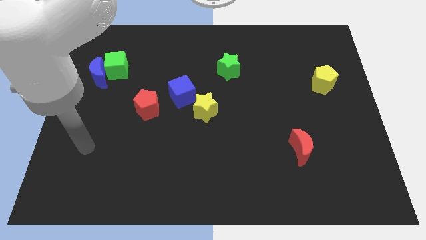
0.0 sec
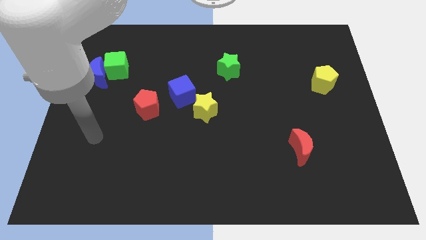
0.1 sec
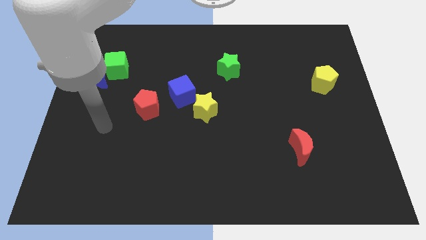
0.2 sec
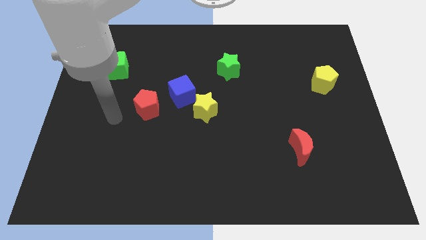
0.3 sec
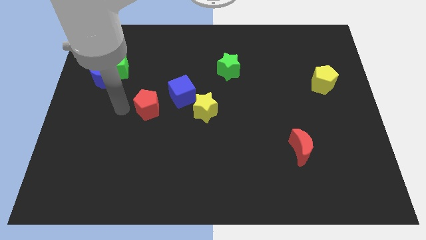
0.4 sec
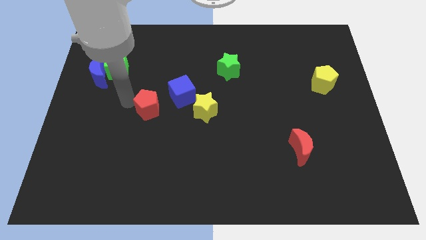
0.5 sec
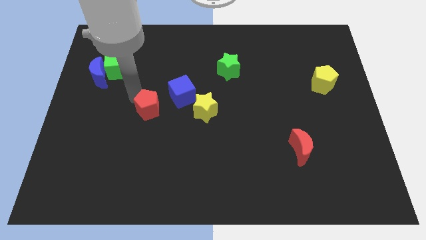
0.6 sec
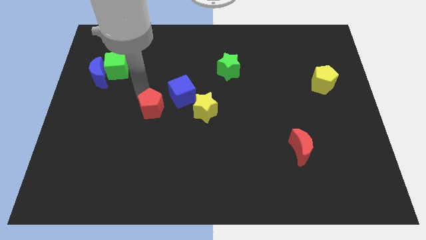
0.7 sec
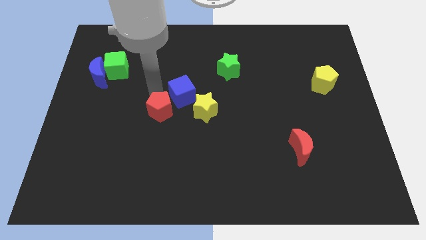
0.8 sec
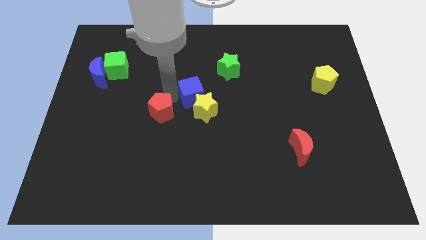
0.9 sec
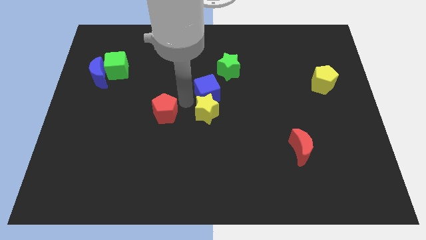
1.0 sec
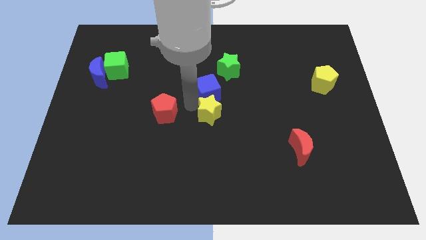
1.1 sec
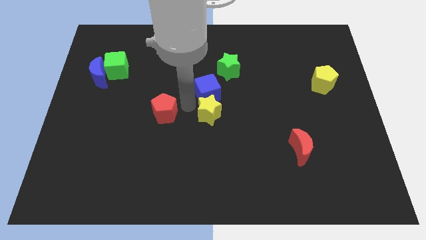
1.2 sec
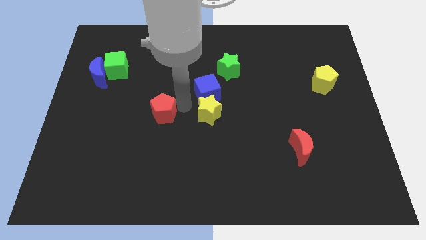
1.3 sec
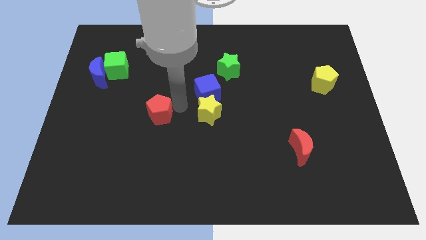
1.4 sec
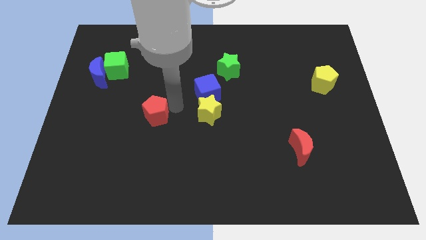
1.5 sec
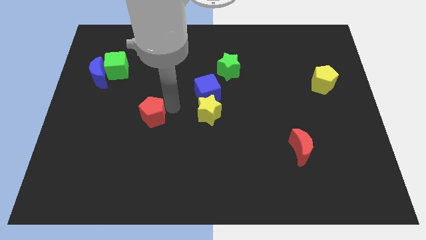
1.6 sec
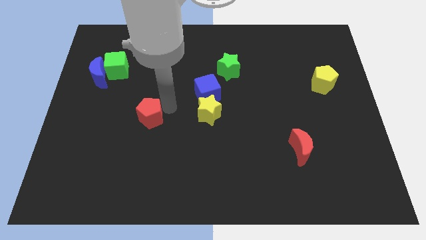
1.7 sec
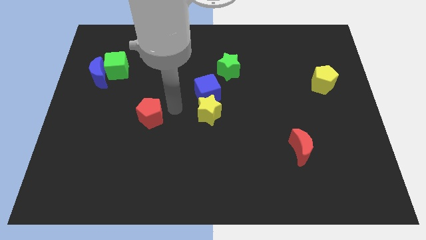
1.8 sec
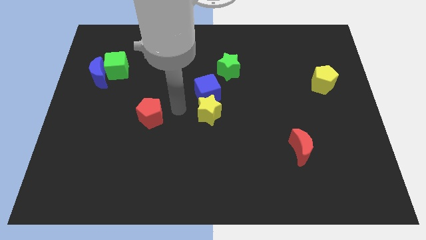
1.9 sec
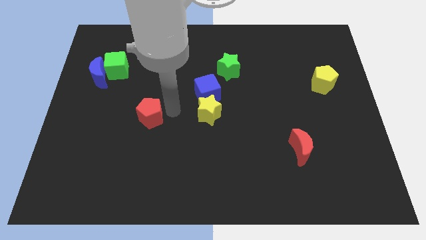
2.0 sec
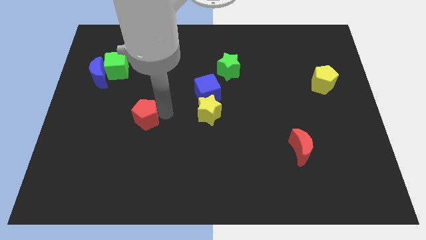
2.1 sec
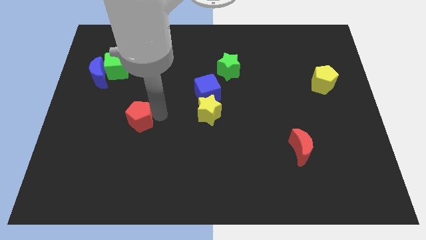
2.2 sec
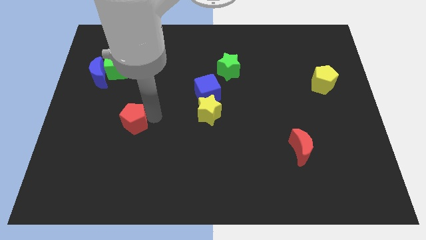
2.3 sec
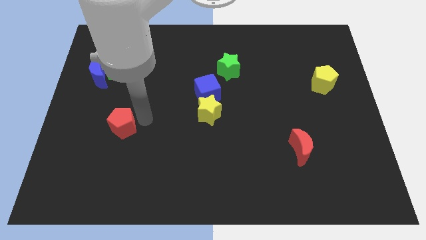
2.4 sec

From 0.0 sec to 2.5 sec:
push the red pentagon diagonally down and to the left a little

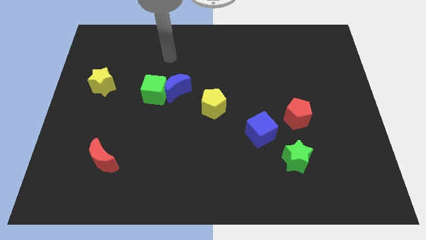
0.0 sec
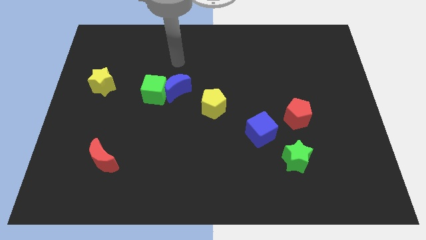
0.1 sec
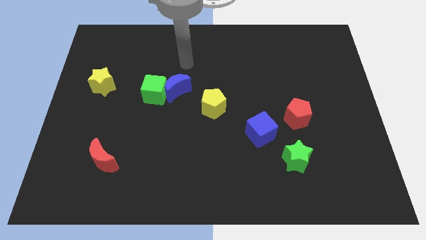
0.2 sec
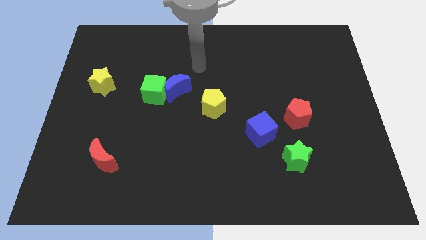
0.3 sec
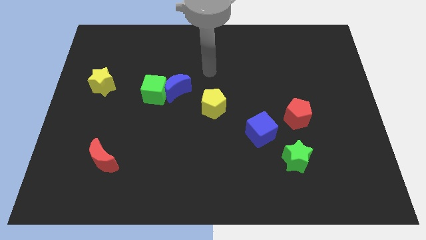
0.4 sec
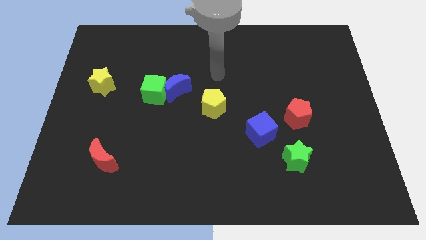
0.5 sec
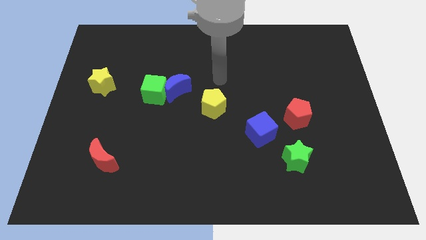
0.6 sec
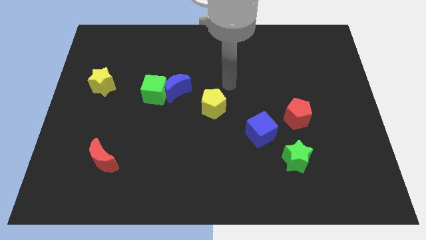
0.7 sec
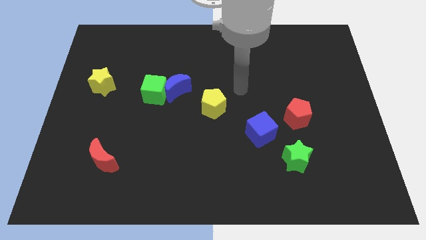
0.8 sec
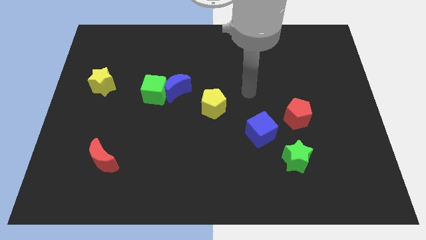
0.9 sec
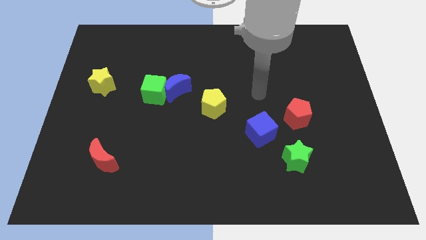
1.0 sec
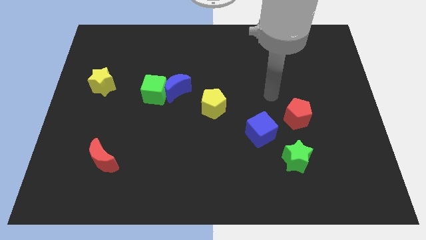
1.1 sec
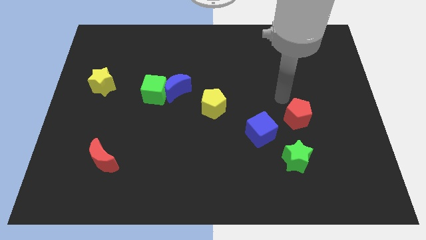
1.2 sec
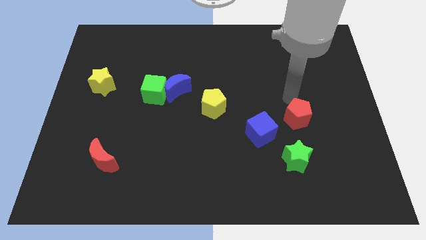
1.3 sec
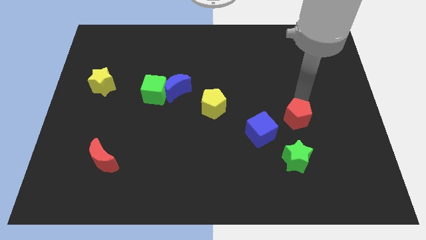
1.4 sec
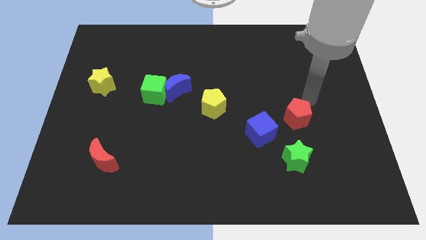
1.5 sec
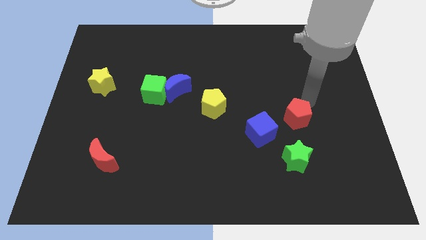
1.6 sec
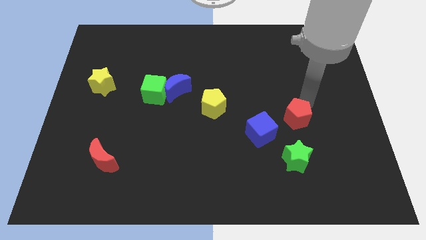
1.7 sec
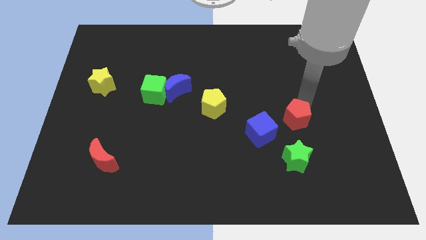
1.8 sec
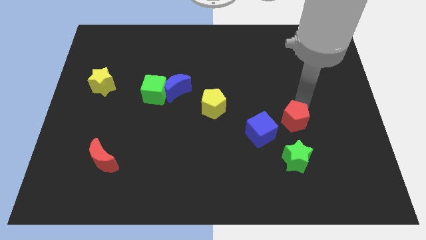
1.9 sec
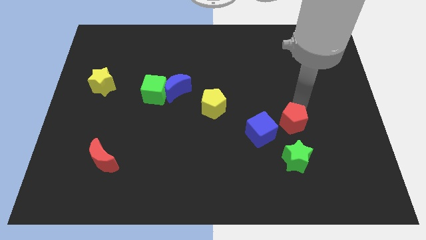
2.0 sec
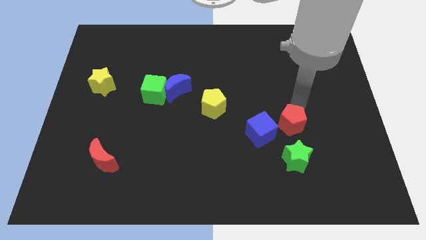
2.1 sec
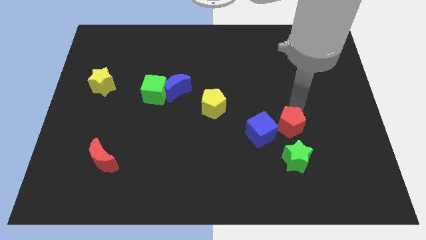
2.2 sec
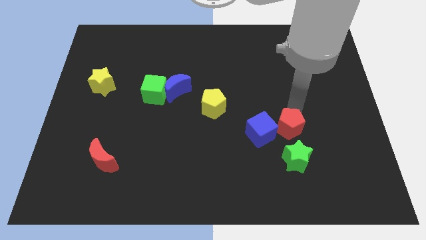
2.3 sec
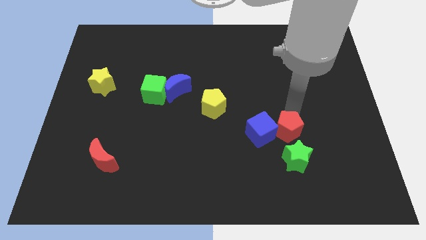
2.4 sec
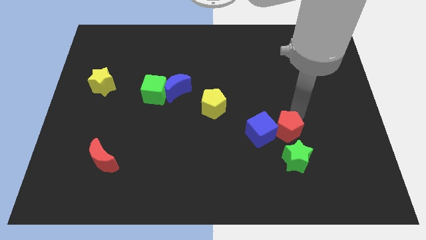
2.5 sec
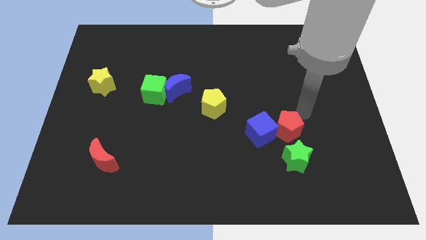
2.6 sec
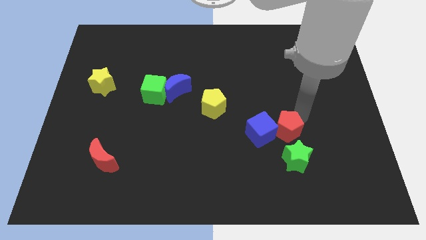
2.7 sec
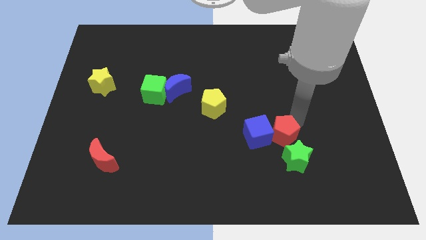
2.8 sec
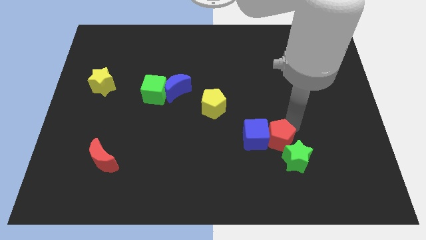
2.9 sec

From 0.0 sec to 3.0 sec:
push the red pentagon somewhat diagonally down and to the left

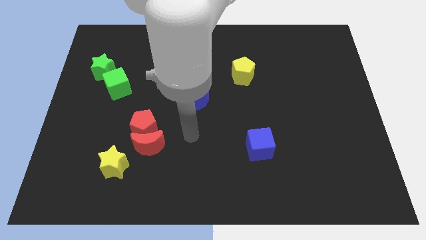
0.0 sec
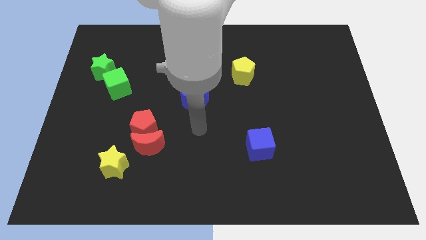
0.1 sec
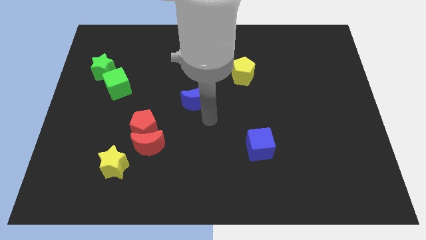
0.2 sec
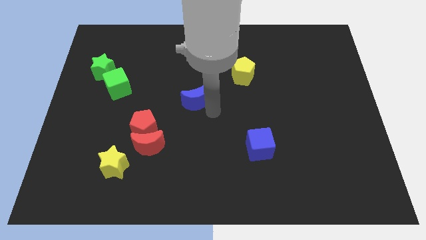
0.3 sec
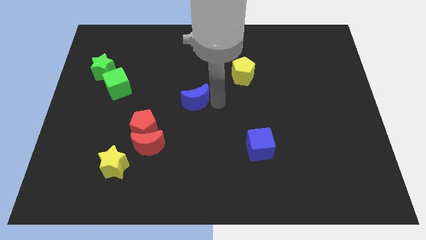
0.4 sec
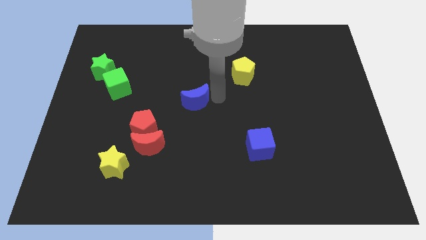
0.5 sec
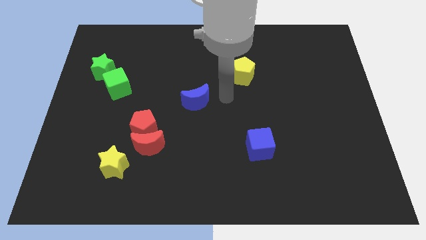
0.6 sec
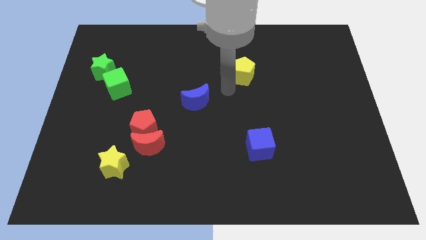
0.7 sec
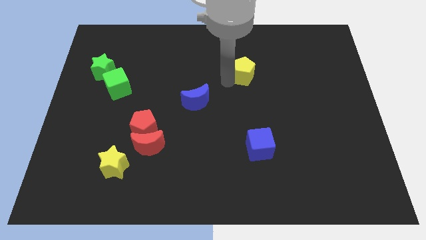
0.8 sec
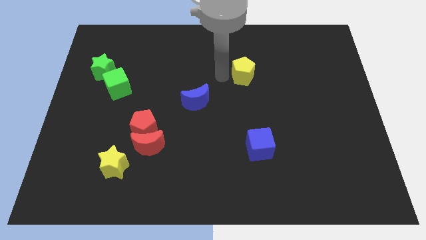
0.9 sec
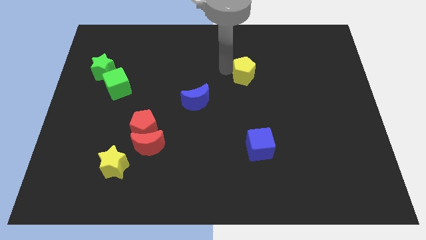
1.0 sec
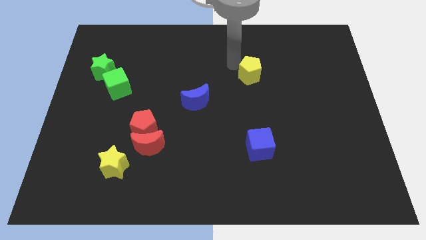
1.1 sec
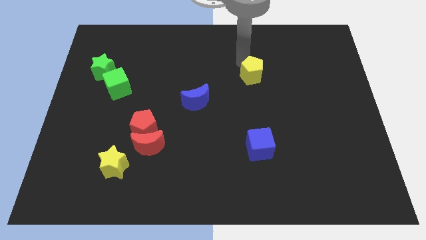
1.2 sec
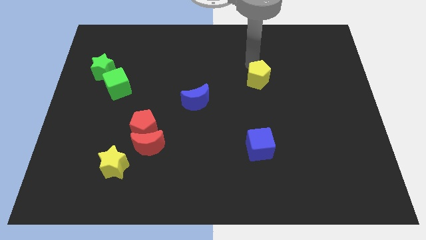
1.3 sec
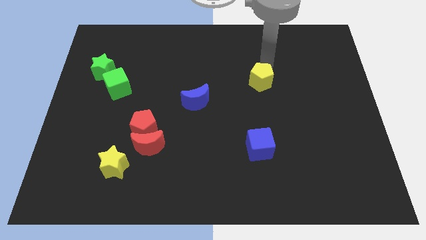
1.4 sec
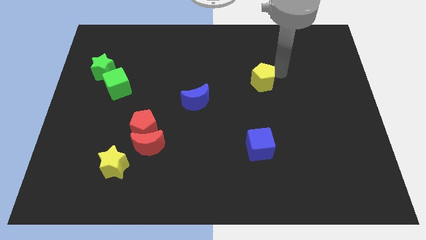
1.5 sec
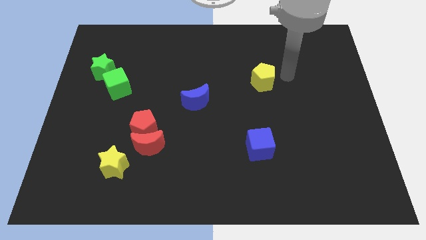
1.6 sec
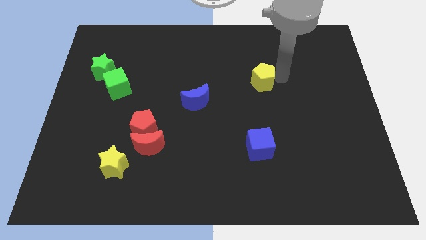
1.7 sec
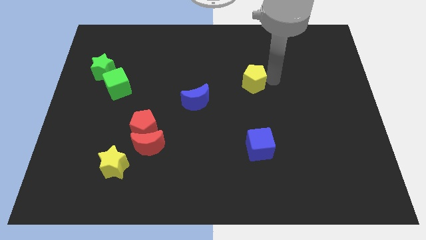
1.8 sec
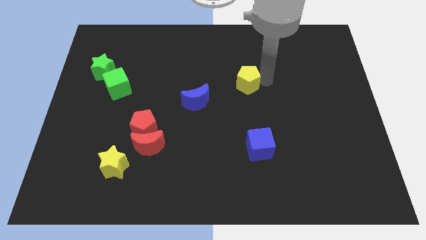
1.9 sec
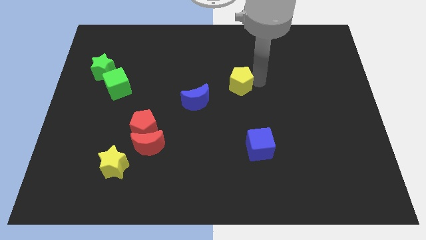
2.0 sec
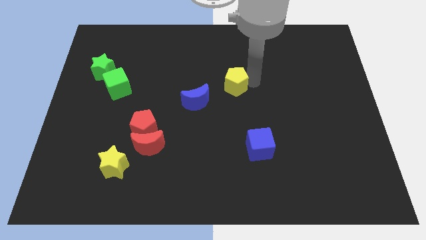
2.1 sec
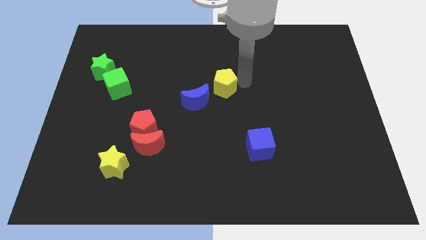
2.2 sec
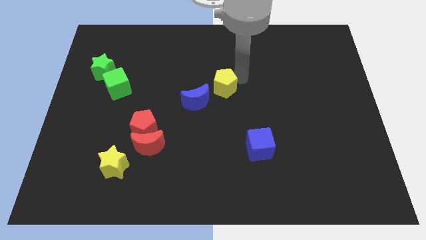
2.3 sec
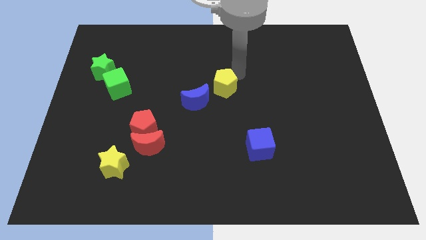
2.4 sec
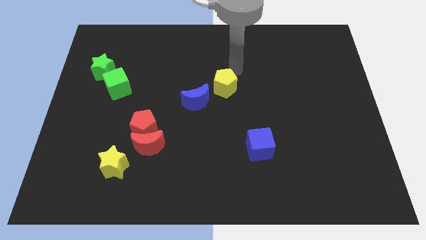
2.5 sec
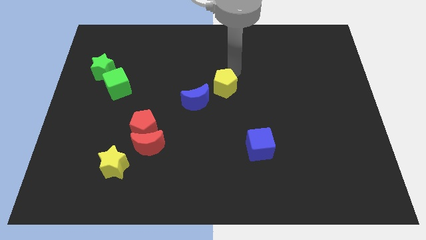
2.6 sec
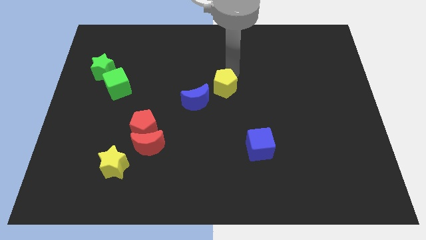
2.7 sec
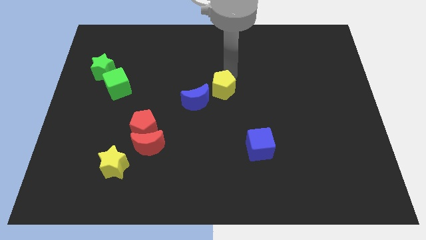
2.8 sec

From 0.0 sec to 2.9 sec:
slightly push the yellow pentagon down and to the left
